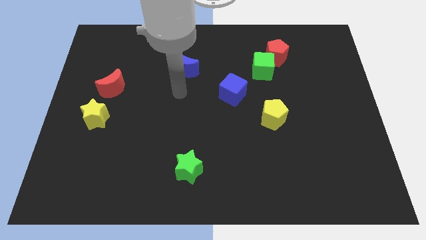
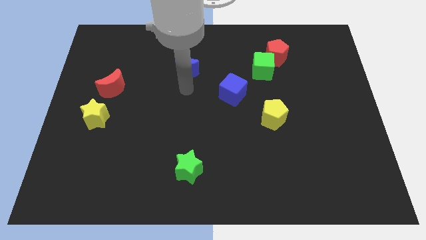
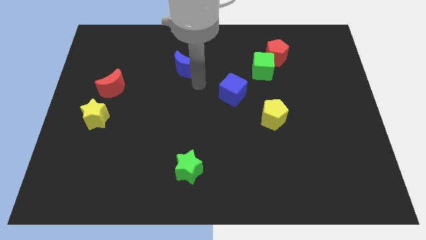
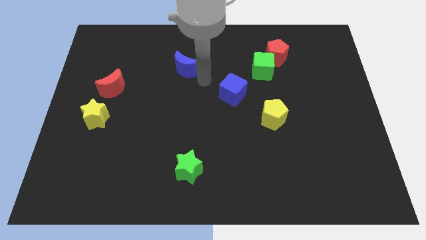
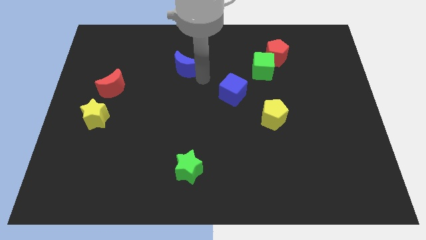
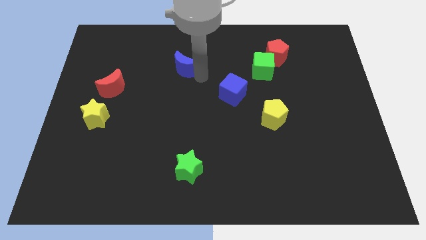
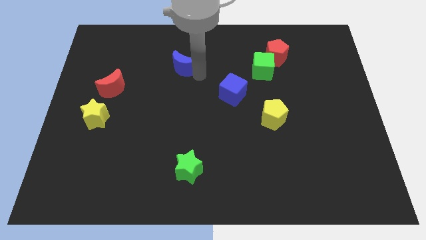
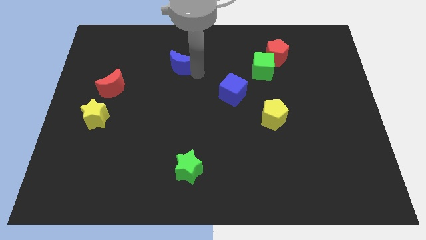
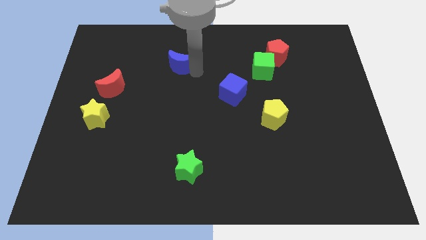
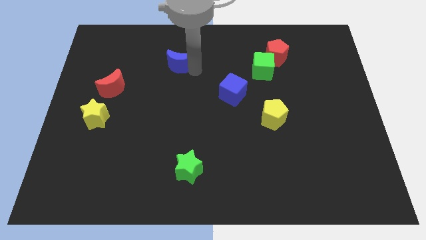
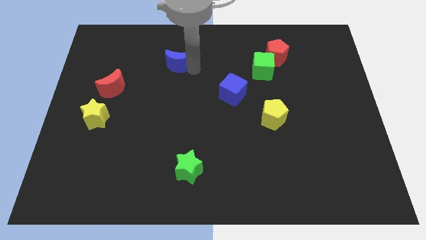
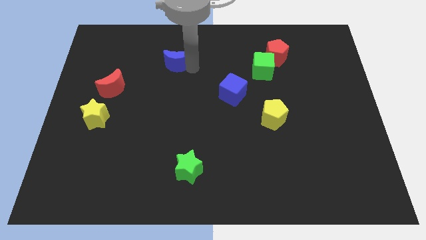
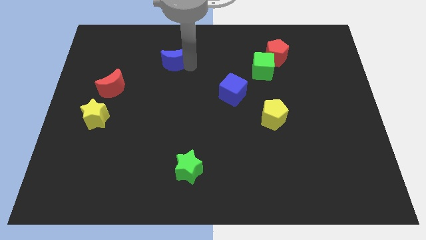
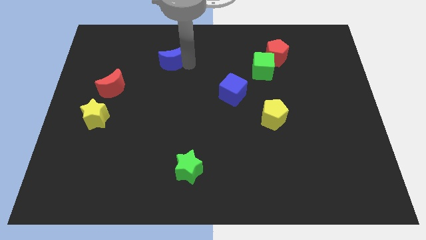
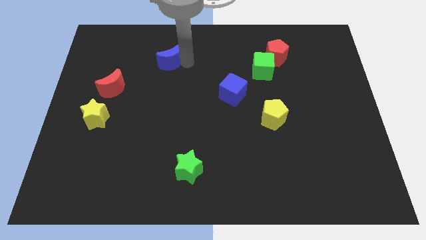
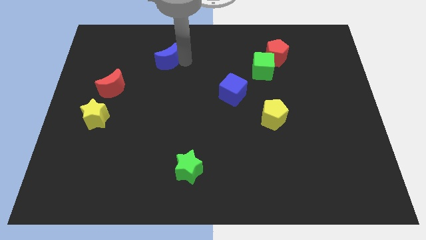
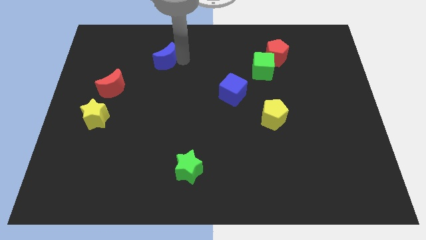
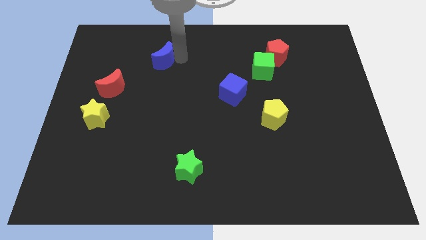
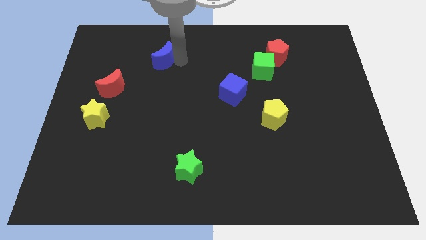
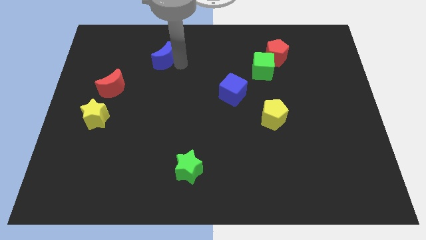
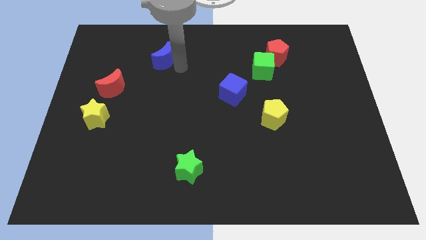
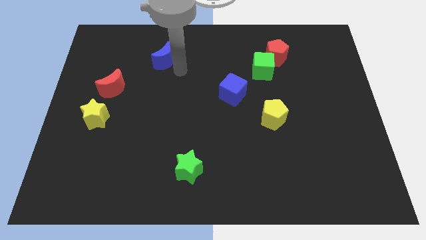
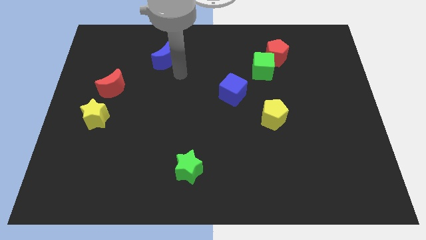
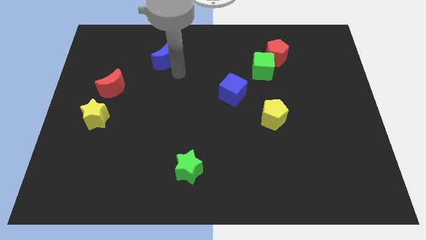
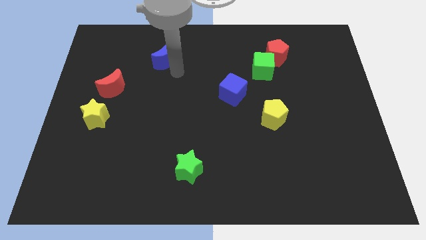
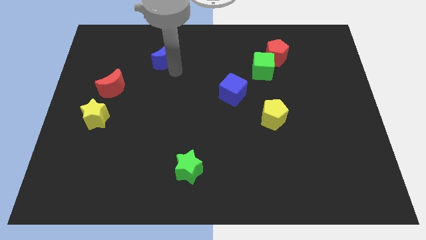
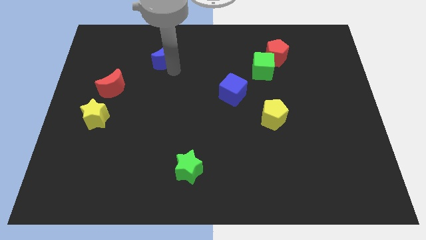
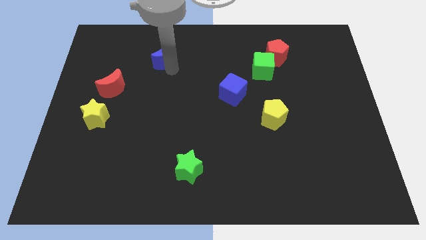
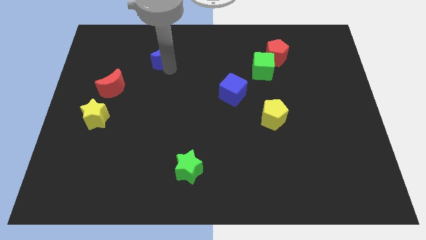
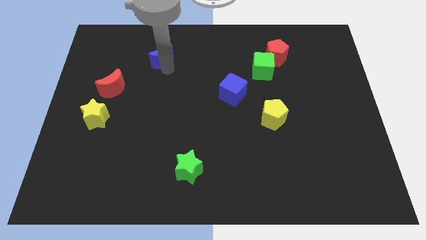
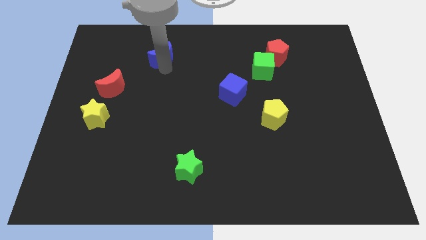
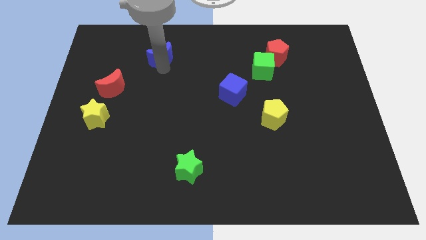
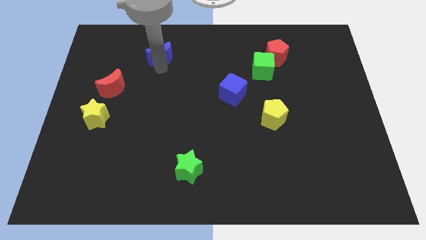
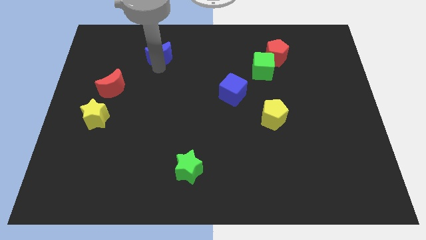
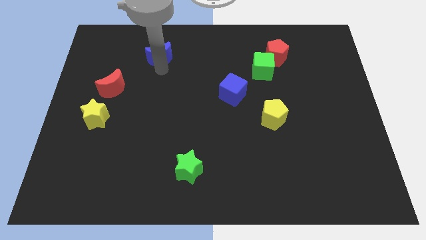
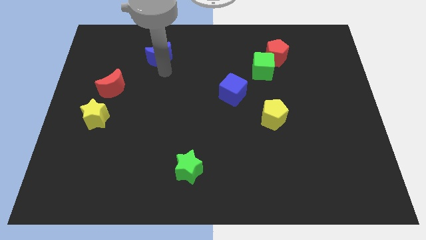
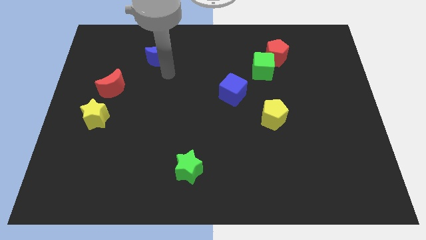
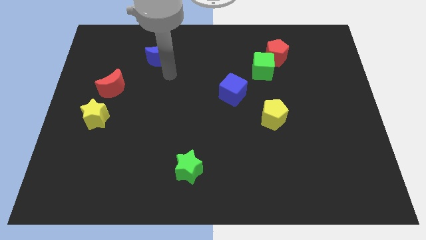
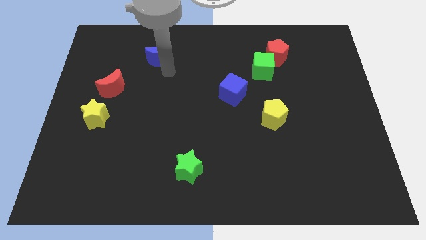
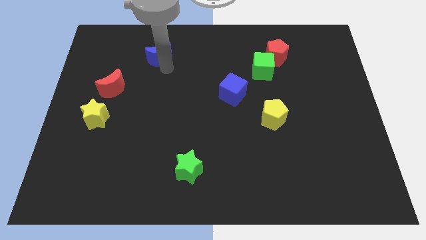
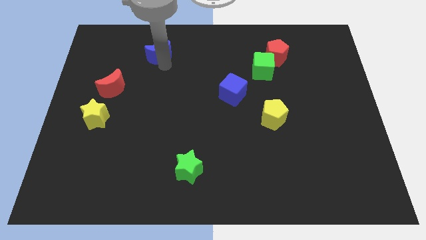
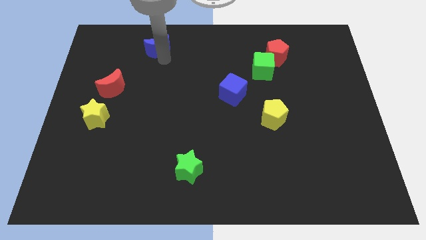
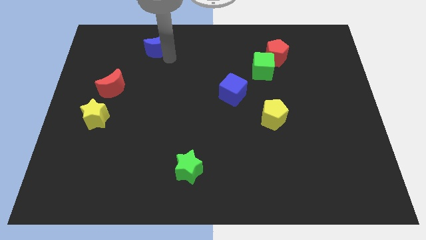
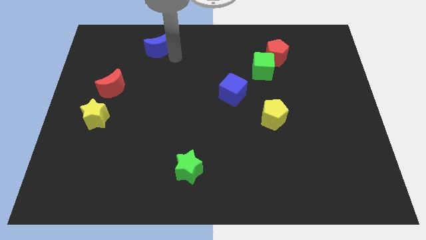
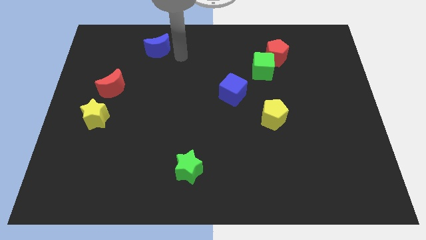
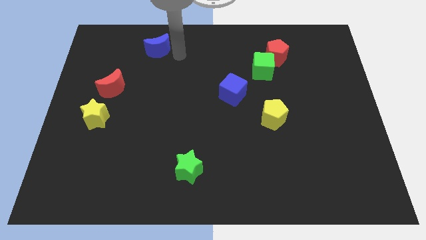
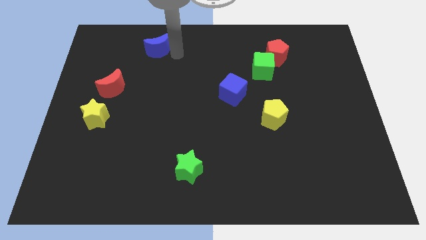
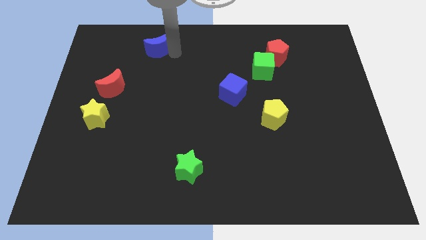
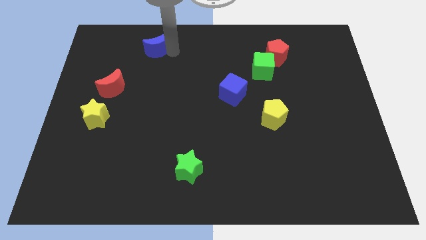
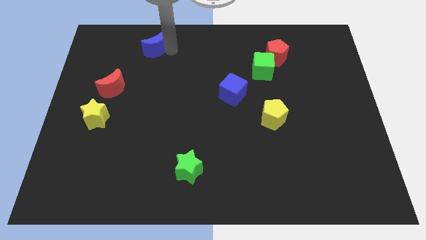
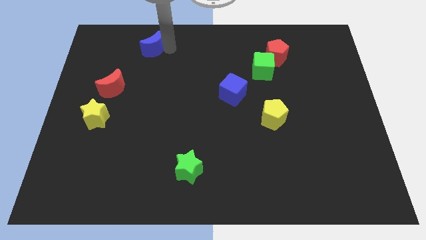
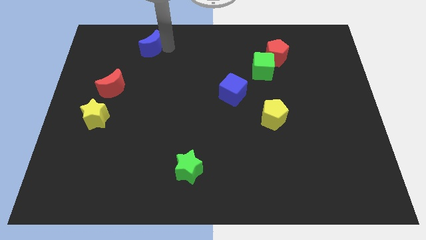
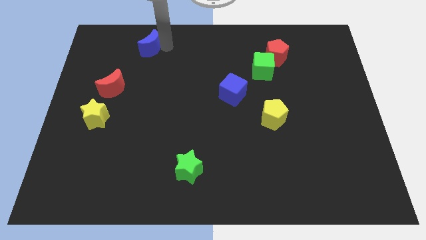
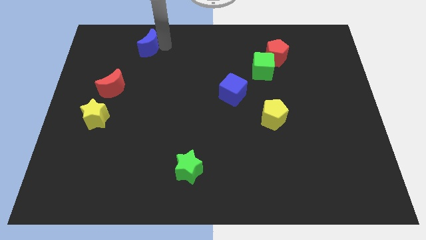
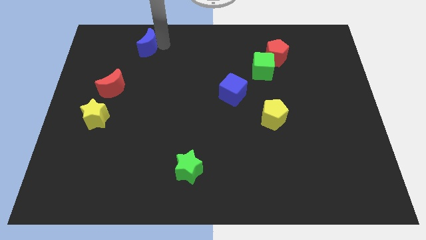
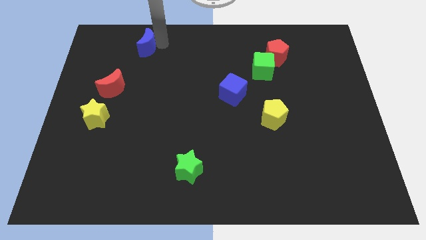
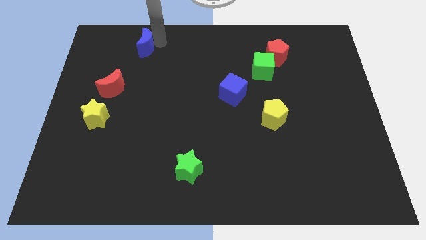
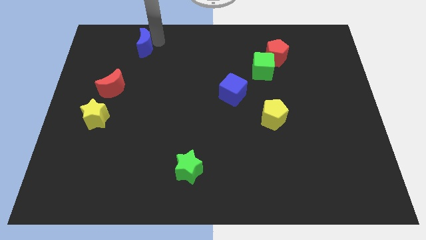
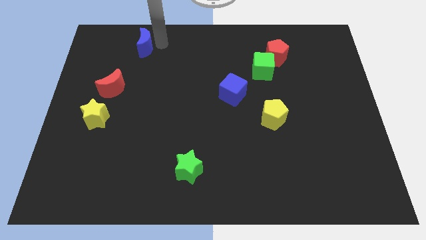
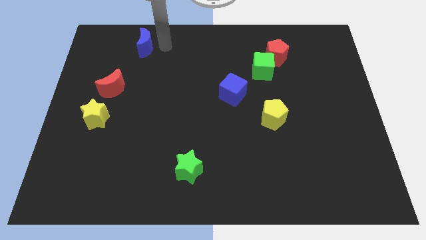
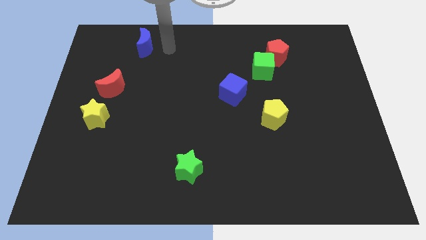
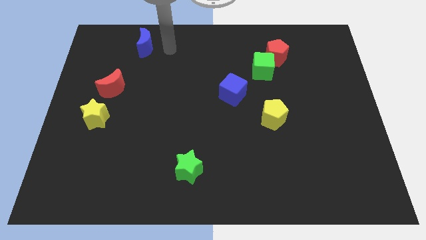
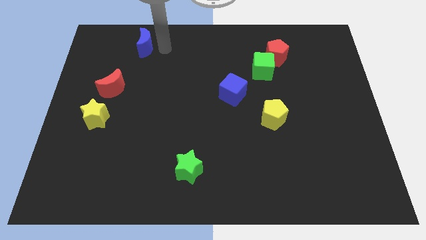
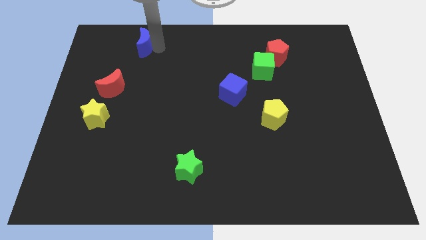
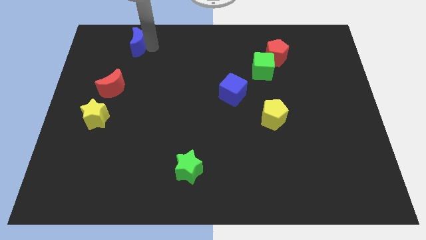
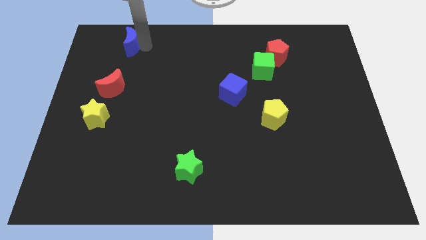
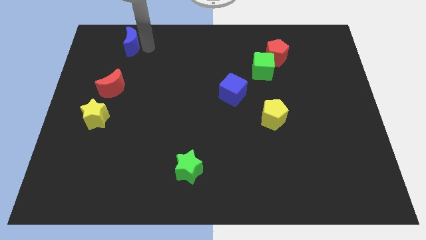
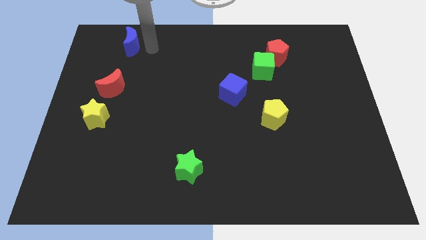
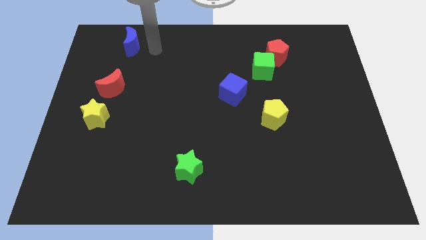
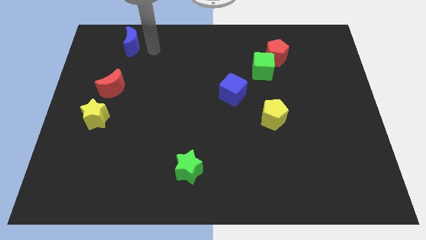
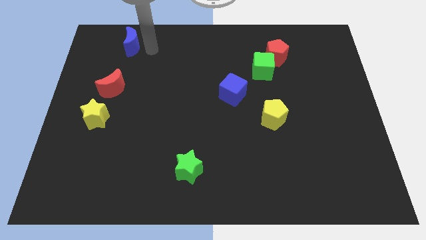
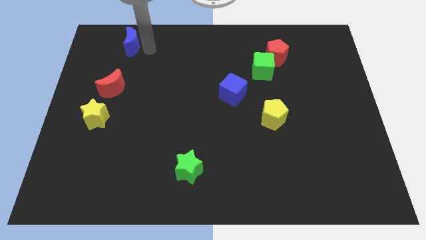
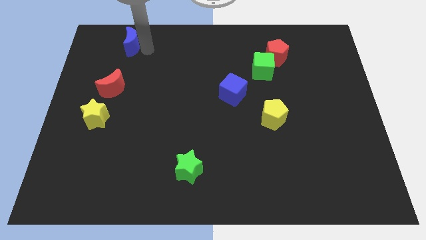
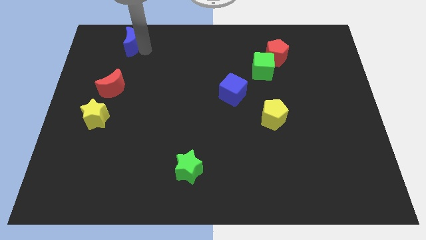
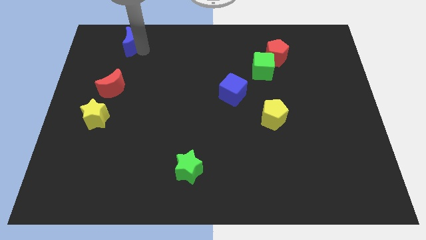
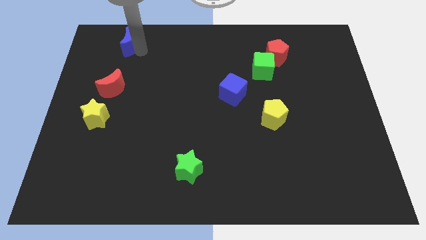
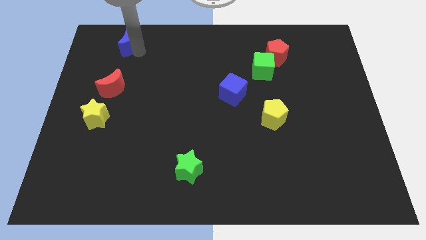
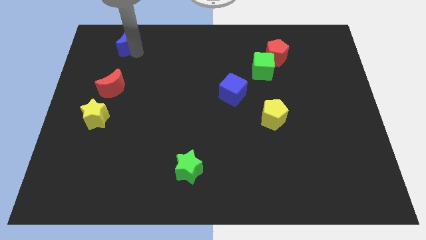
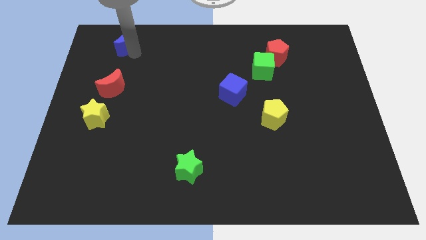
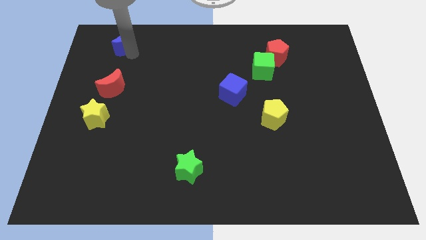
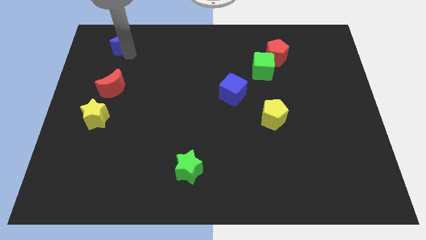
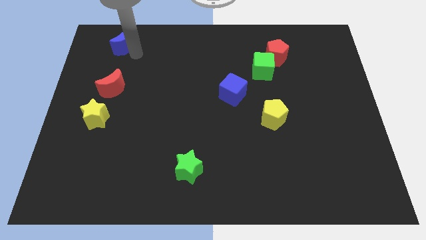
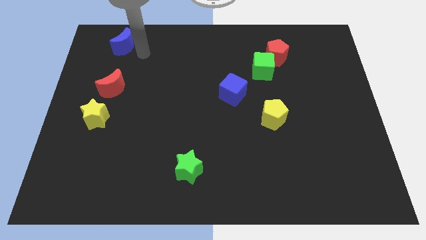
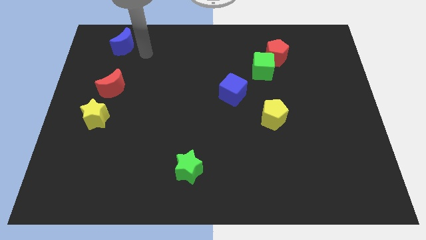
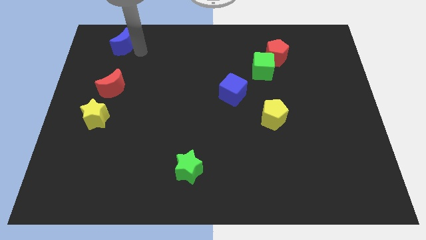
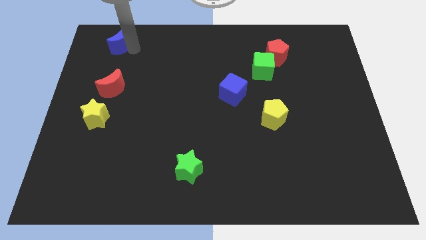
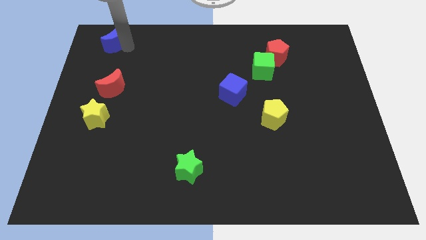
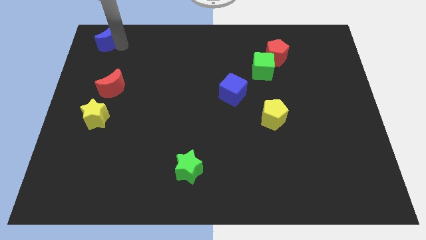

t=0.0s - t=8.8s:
move the blue moon to the upper left corner
